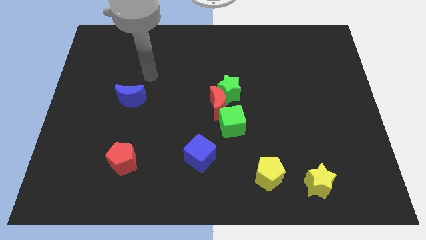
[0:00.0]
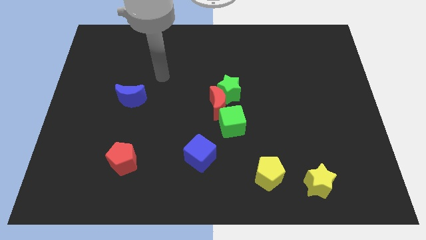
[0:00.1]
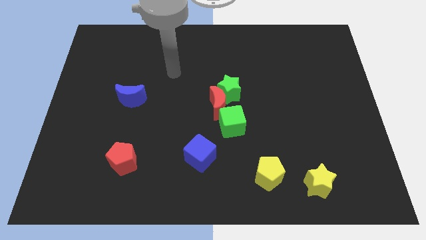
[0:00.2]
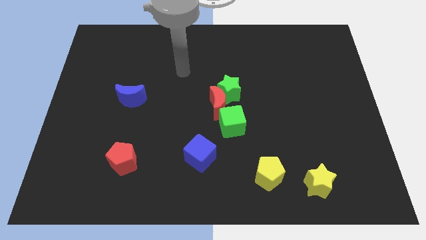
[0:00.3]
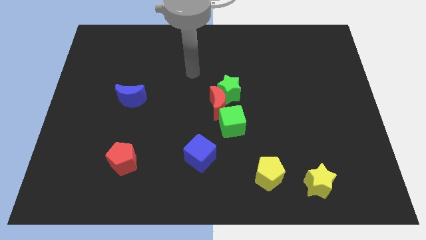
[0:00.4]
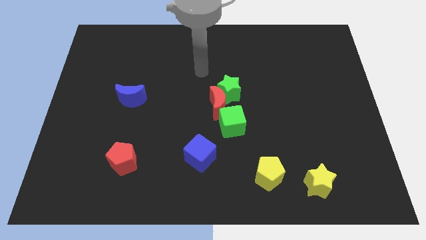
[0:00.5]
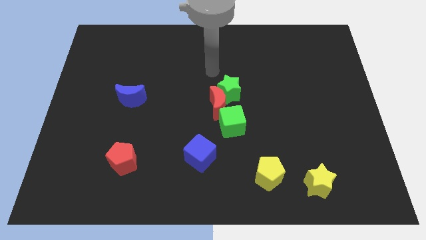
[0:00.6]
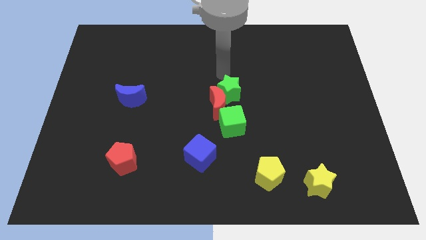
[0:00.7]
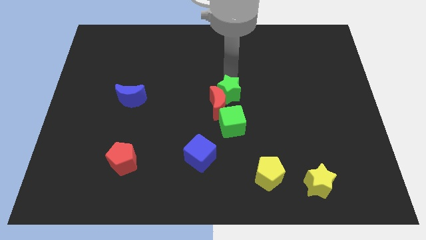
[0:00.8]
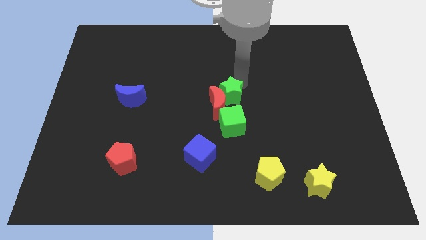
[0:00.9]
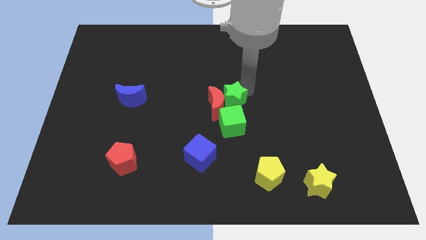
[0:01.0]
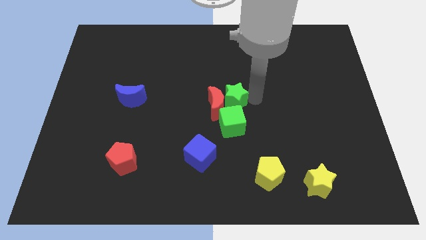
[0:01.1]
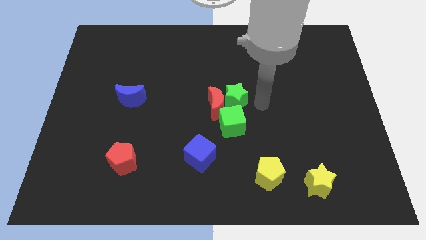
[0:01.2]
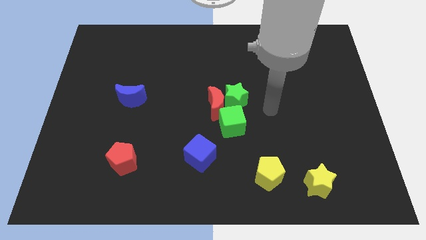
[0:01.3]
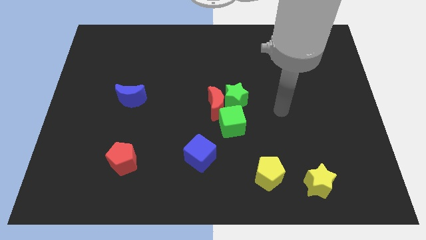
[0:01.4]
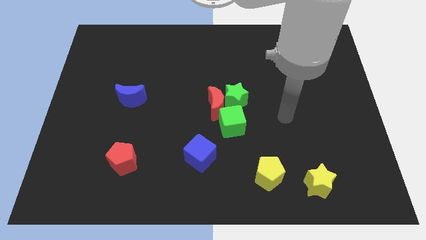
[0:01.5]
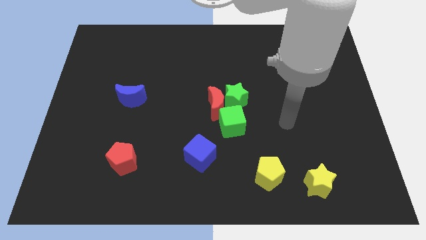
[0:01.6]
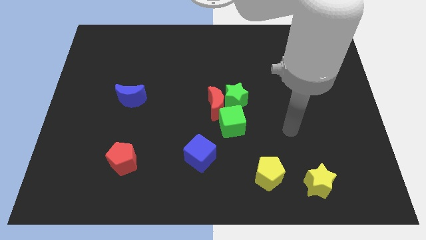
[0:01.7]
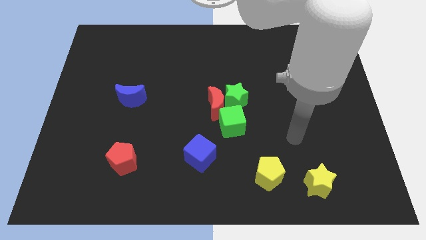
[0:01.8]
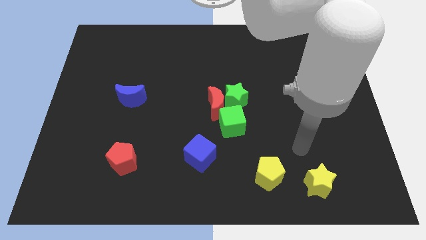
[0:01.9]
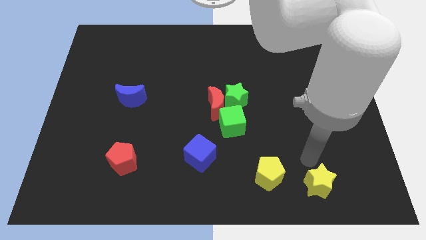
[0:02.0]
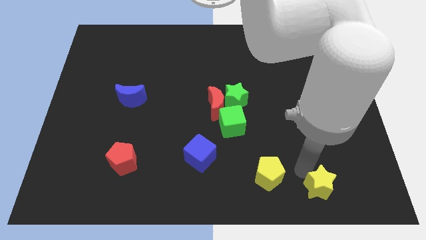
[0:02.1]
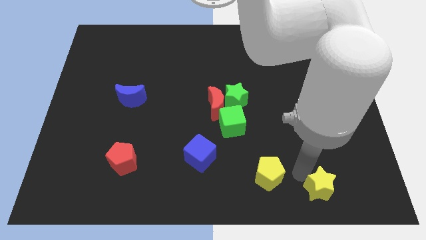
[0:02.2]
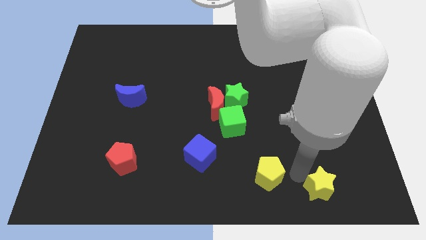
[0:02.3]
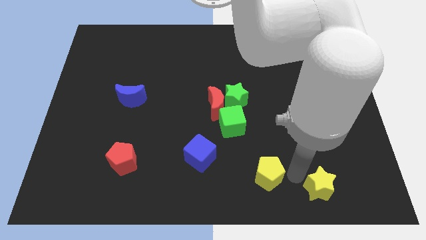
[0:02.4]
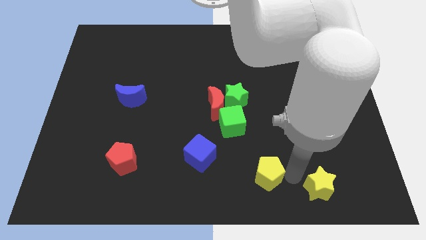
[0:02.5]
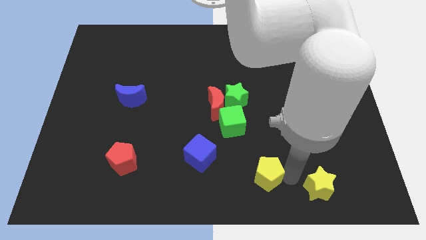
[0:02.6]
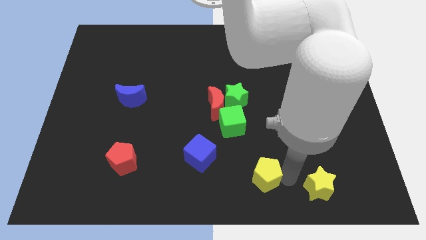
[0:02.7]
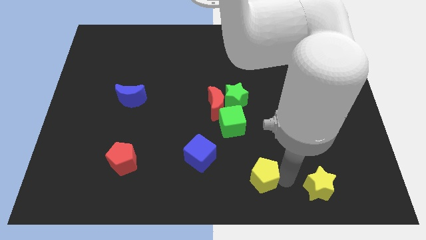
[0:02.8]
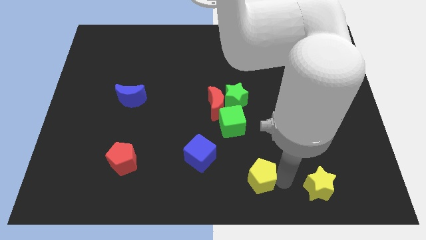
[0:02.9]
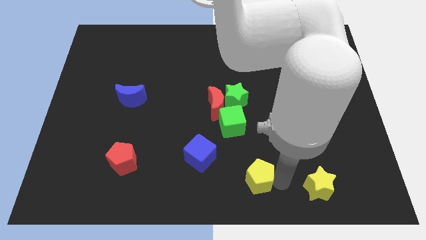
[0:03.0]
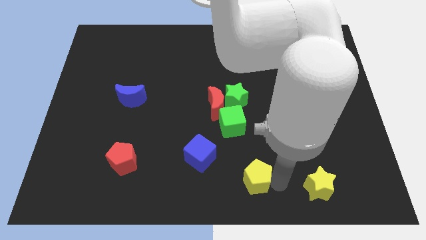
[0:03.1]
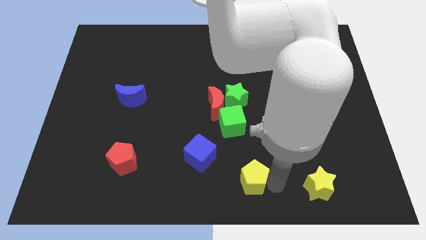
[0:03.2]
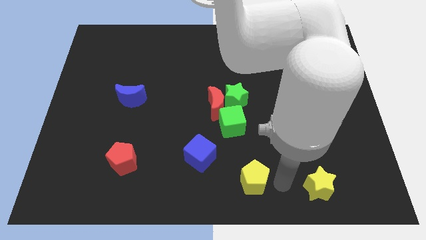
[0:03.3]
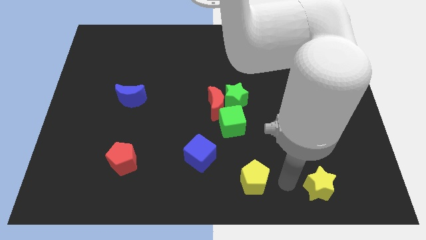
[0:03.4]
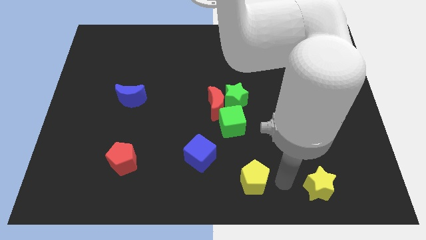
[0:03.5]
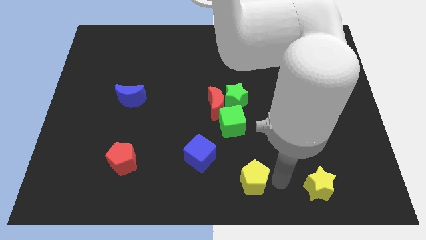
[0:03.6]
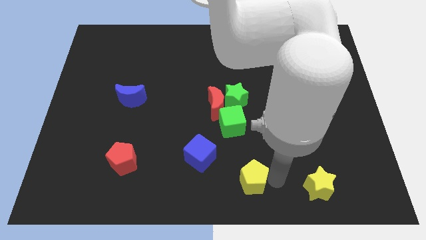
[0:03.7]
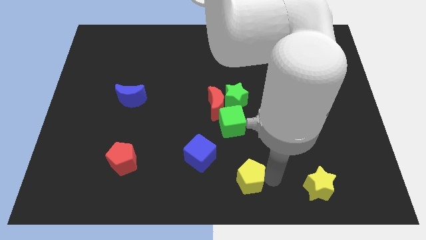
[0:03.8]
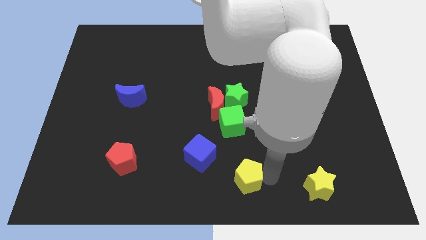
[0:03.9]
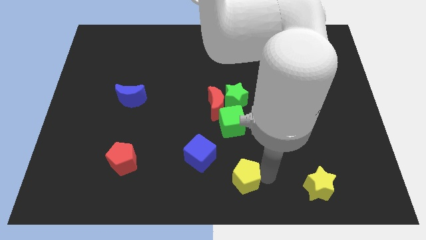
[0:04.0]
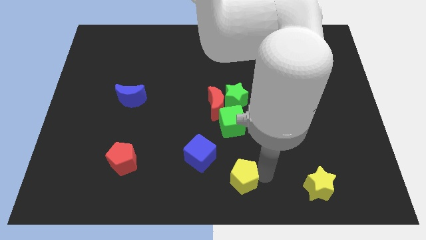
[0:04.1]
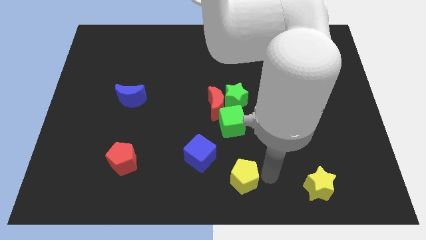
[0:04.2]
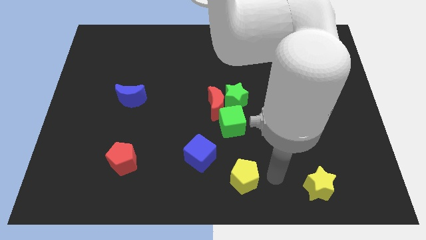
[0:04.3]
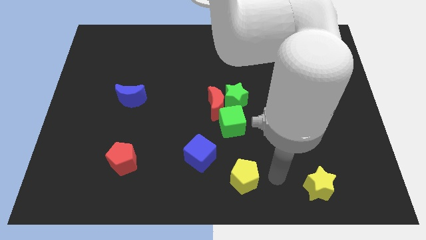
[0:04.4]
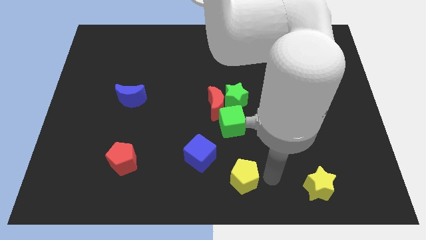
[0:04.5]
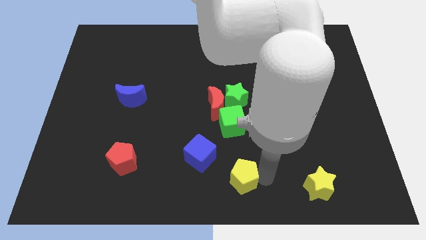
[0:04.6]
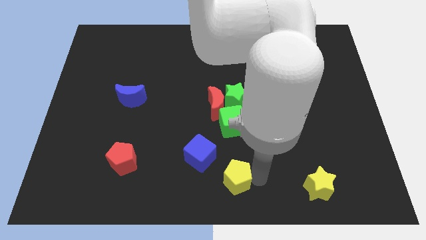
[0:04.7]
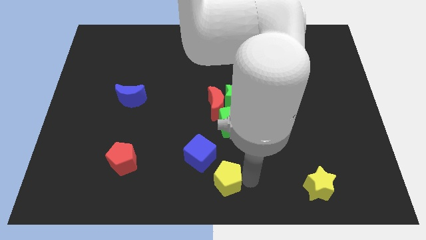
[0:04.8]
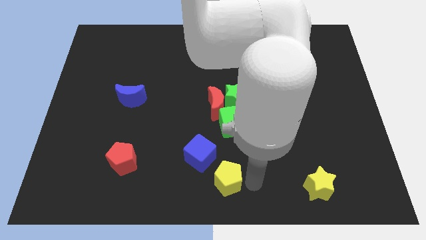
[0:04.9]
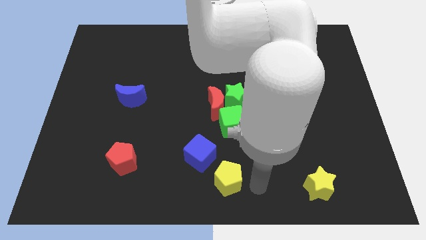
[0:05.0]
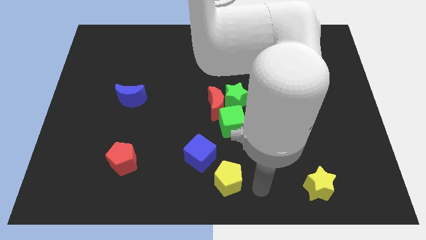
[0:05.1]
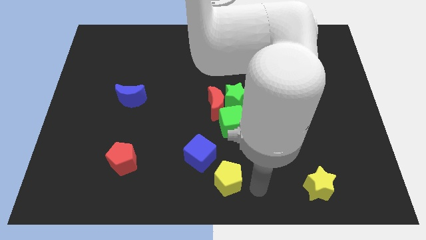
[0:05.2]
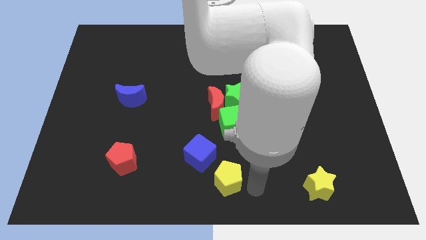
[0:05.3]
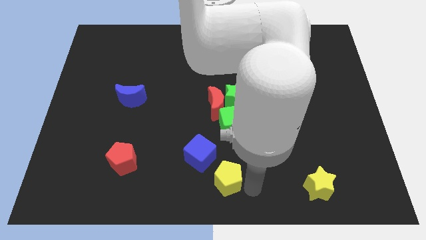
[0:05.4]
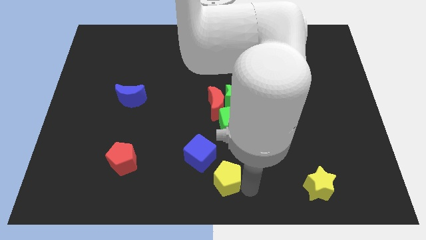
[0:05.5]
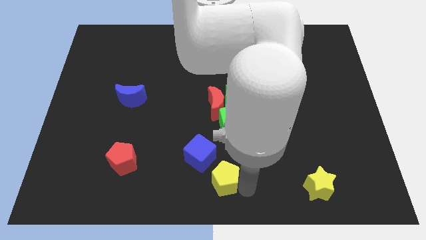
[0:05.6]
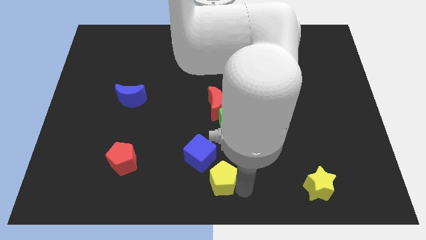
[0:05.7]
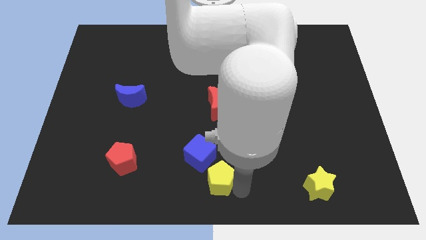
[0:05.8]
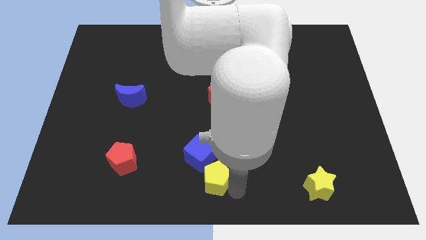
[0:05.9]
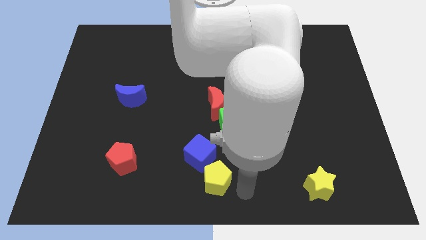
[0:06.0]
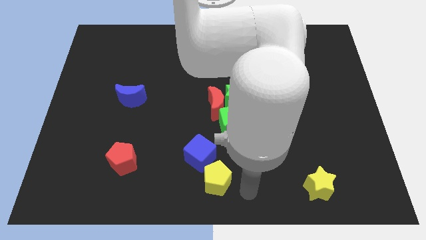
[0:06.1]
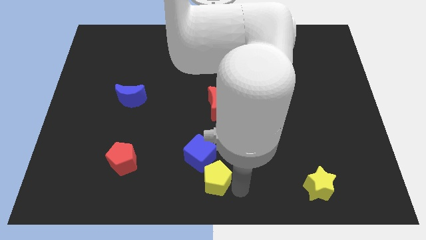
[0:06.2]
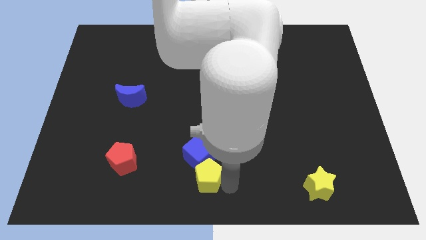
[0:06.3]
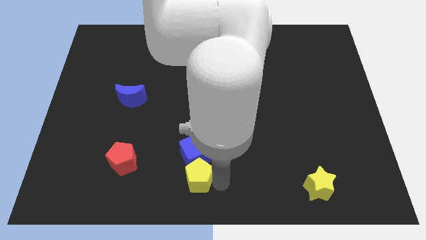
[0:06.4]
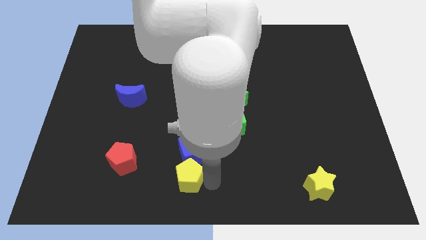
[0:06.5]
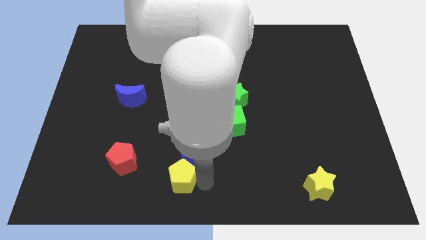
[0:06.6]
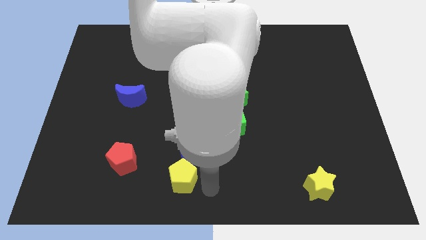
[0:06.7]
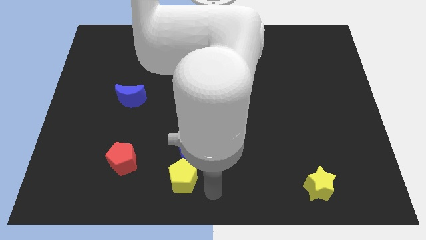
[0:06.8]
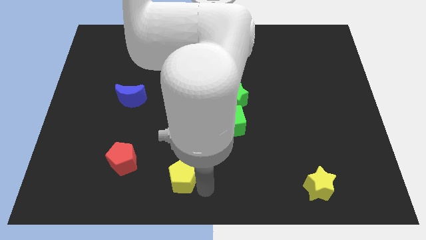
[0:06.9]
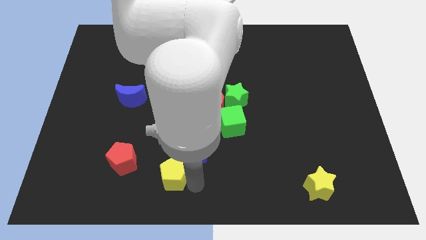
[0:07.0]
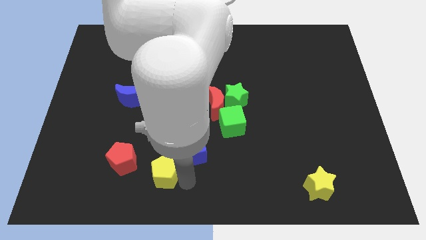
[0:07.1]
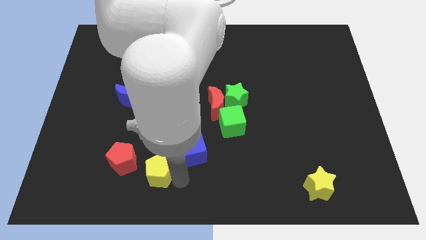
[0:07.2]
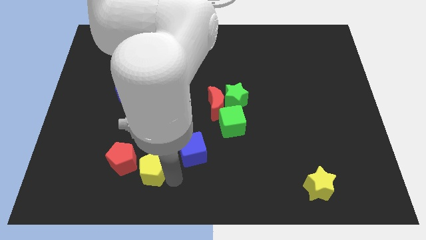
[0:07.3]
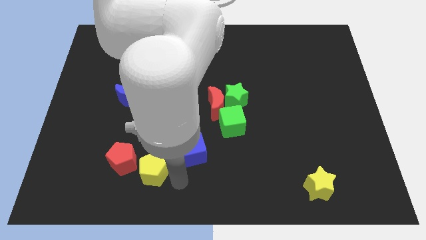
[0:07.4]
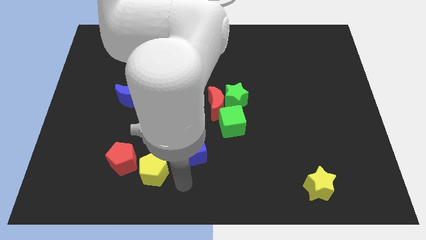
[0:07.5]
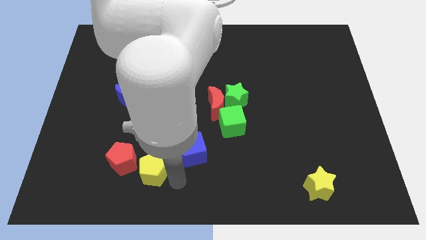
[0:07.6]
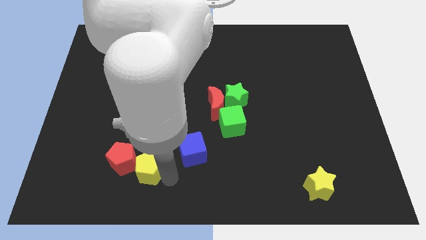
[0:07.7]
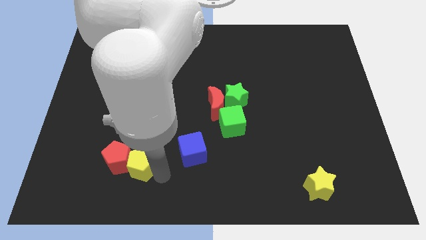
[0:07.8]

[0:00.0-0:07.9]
slide the yellow pentagon close to the red pentagon
